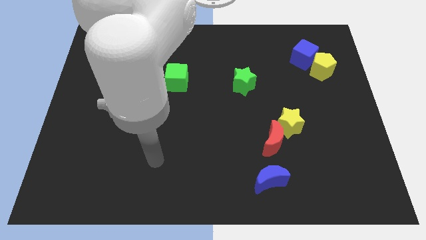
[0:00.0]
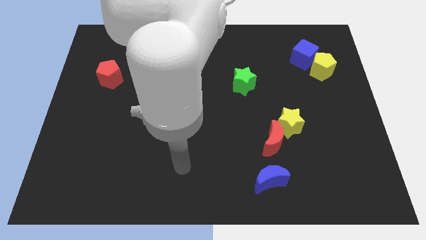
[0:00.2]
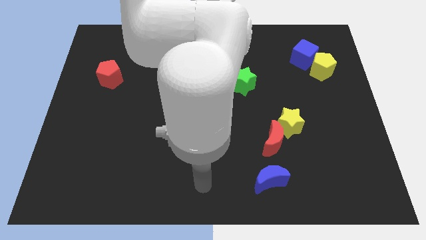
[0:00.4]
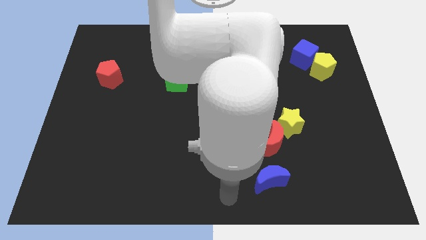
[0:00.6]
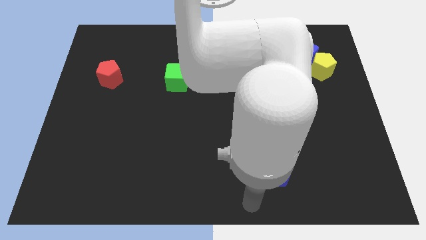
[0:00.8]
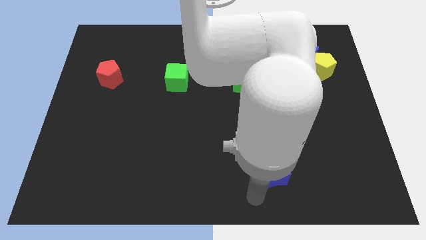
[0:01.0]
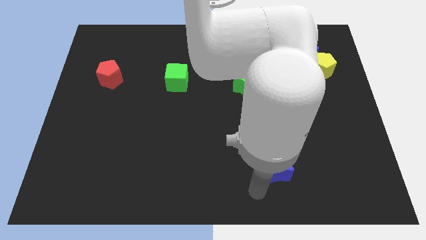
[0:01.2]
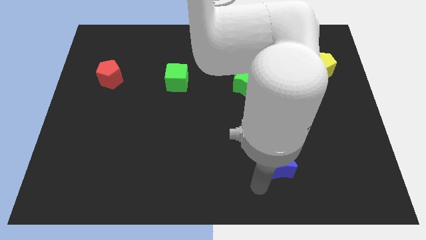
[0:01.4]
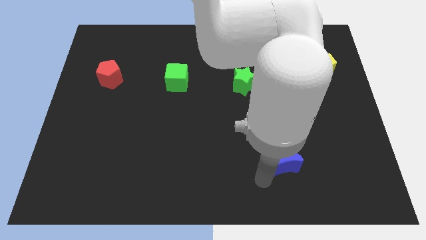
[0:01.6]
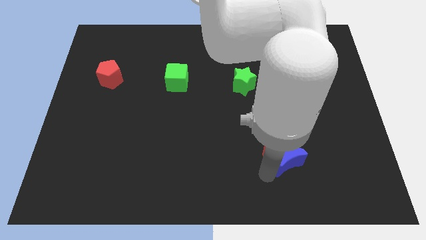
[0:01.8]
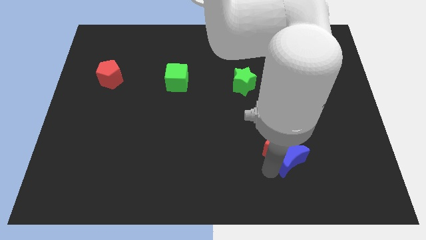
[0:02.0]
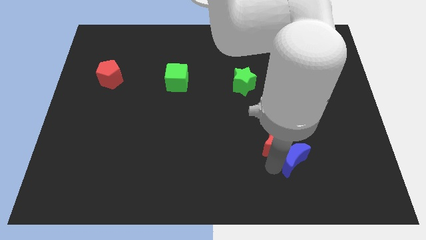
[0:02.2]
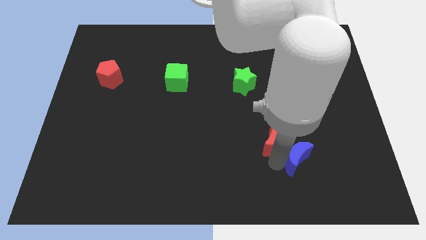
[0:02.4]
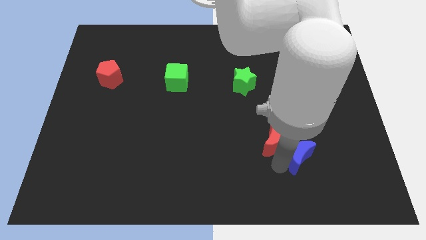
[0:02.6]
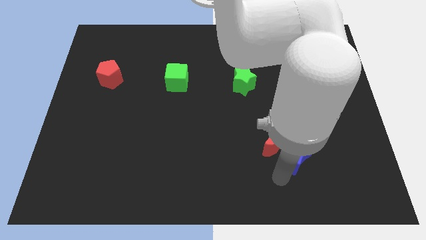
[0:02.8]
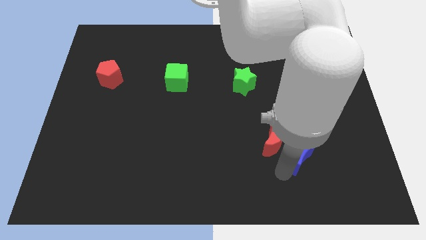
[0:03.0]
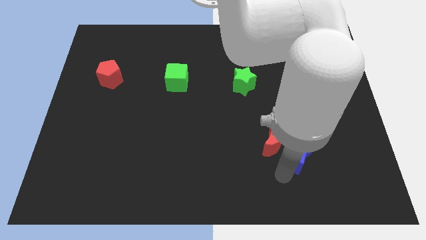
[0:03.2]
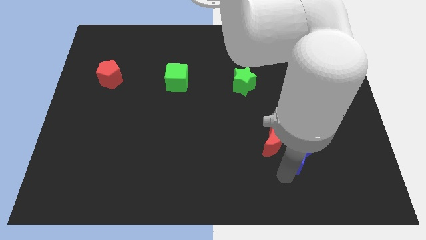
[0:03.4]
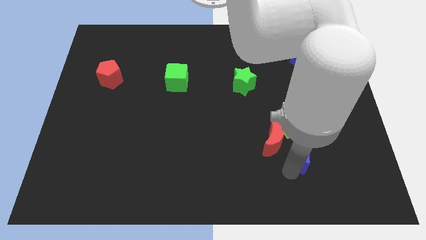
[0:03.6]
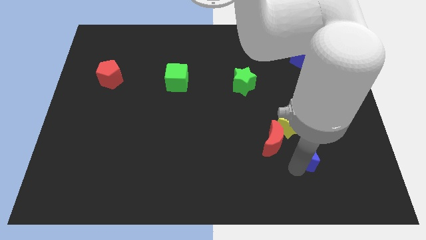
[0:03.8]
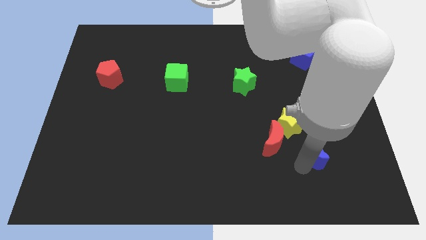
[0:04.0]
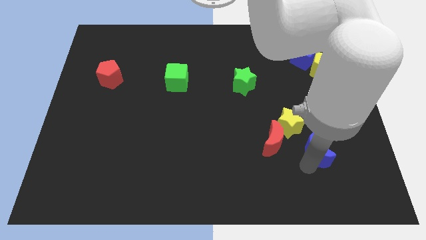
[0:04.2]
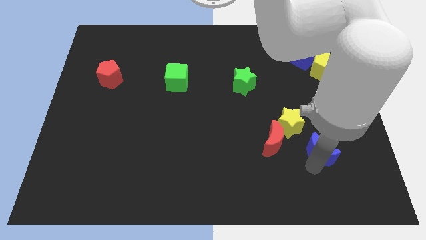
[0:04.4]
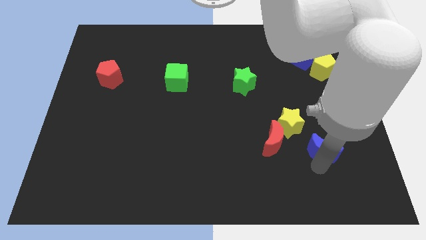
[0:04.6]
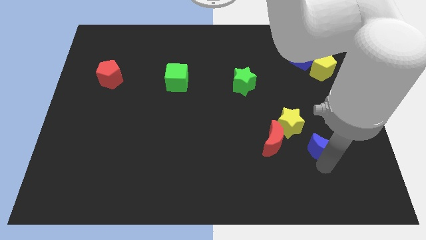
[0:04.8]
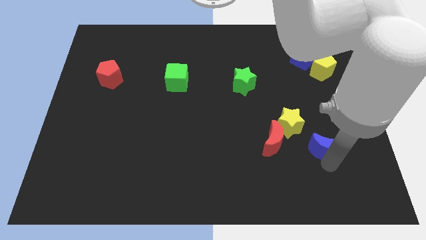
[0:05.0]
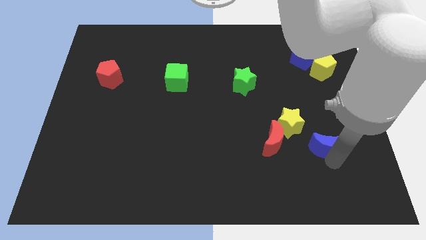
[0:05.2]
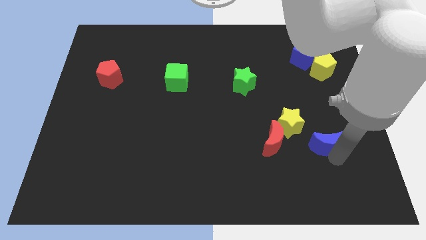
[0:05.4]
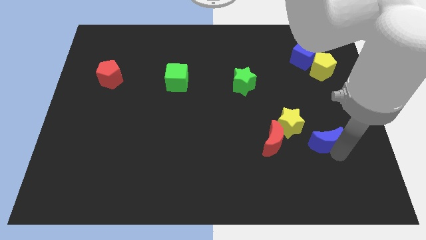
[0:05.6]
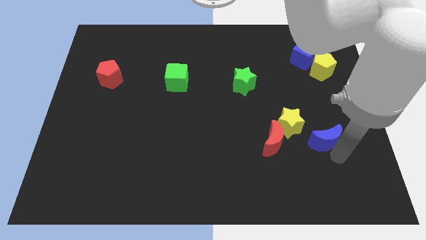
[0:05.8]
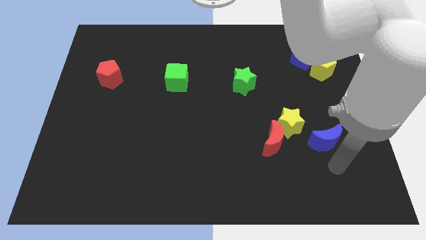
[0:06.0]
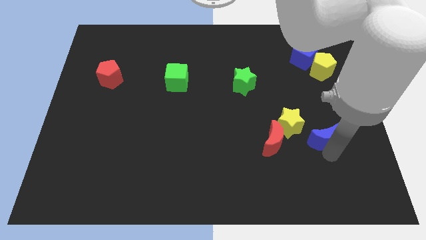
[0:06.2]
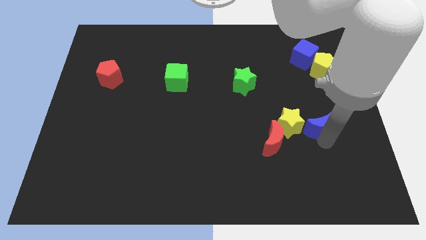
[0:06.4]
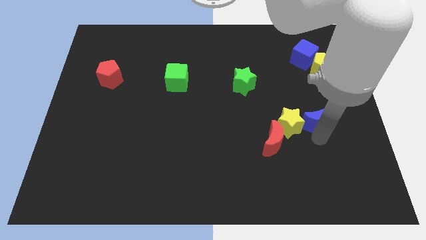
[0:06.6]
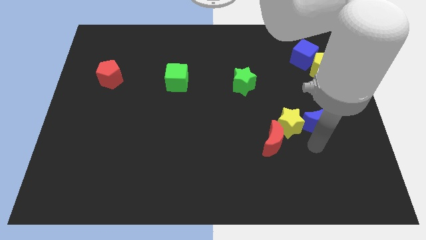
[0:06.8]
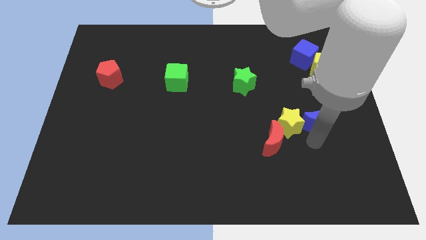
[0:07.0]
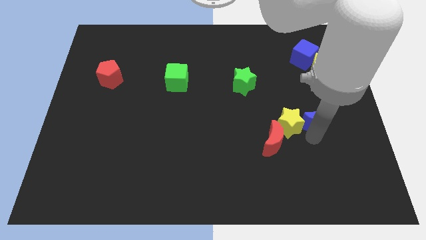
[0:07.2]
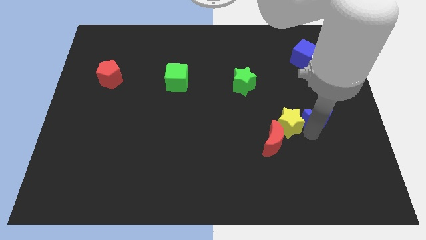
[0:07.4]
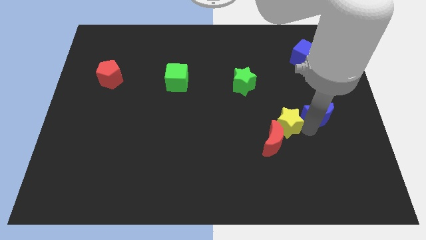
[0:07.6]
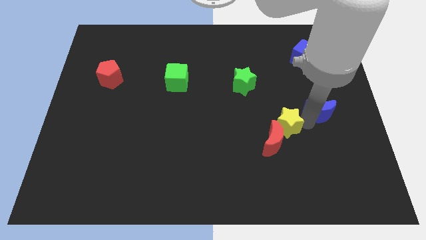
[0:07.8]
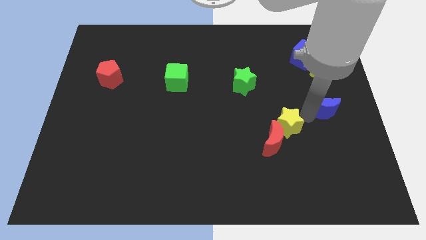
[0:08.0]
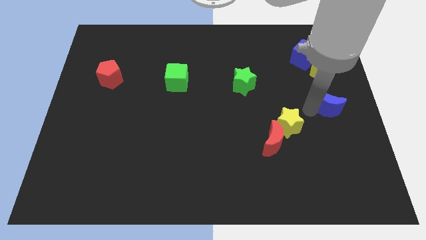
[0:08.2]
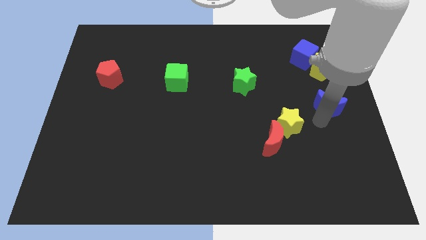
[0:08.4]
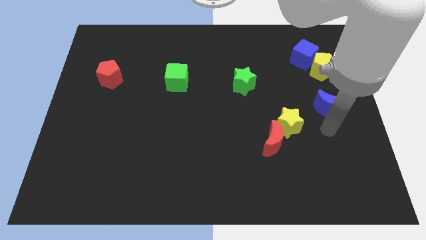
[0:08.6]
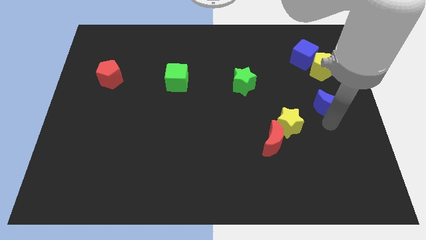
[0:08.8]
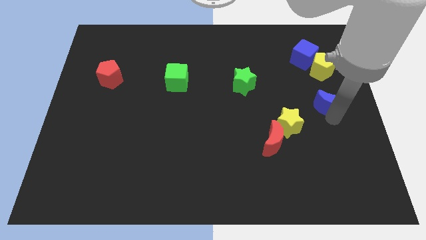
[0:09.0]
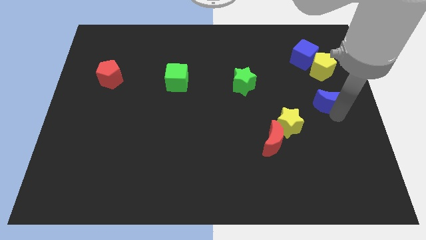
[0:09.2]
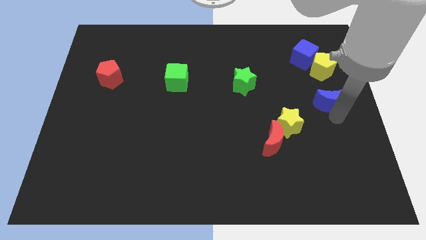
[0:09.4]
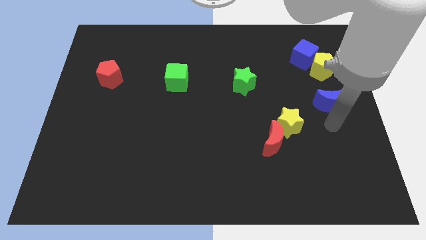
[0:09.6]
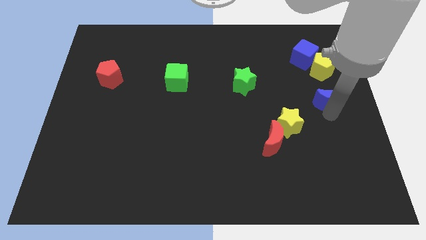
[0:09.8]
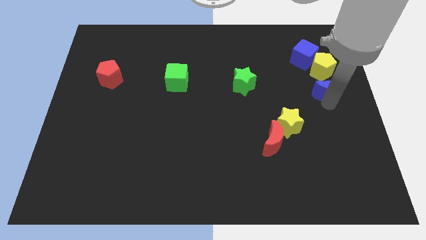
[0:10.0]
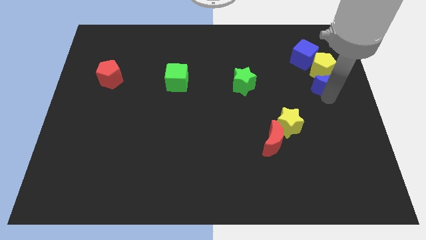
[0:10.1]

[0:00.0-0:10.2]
move the blue moon towards the yellow pentagon

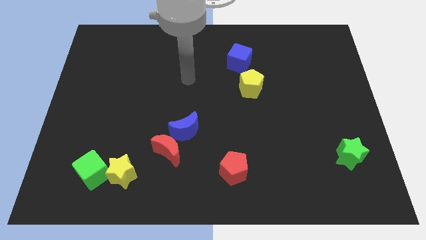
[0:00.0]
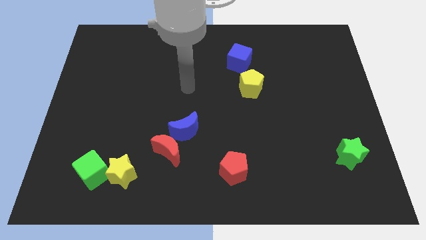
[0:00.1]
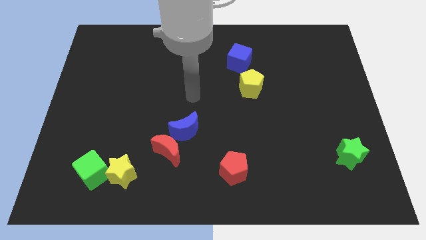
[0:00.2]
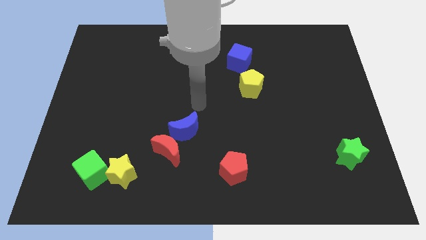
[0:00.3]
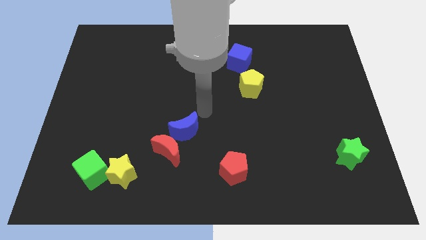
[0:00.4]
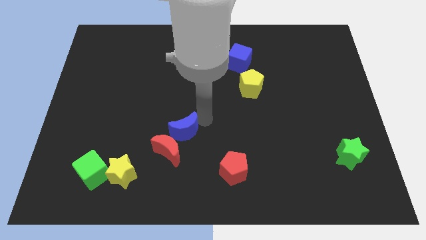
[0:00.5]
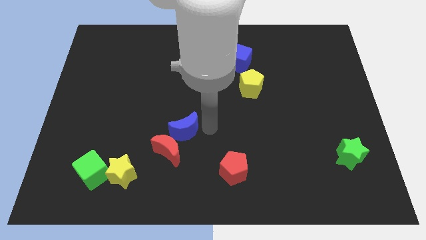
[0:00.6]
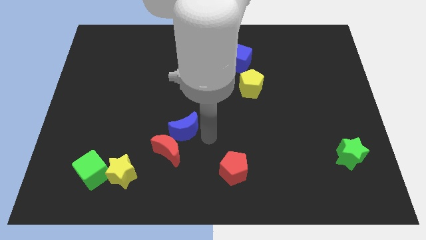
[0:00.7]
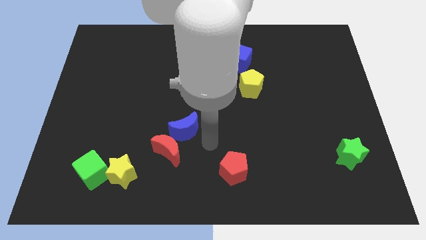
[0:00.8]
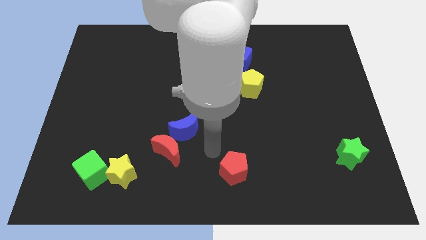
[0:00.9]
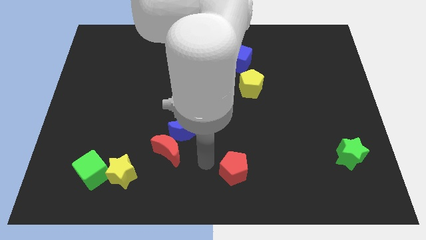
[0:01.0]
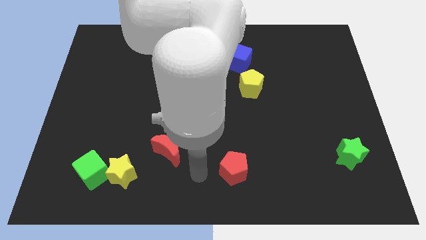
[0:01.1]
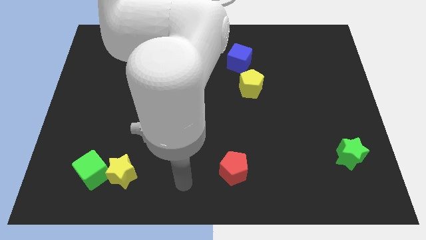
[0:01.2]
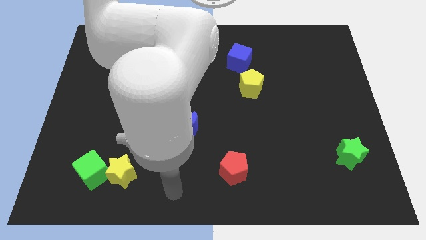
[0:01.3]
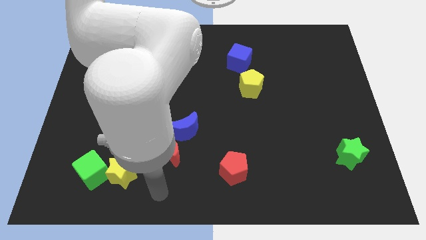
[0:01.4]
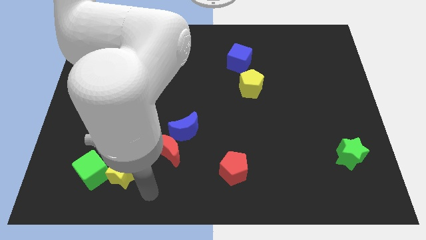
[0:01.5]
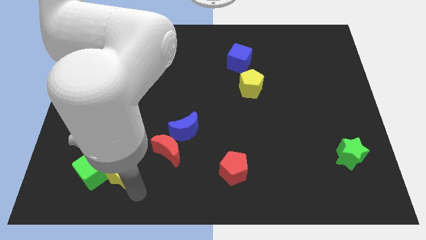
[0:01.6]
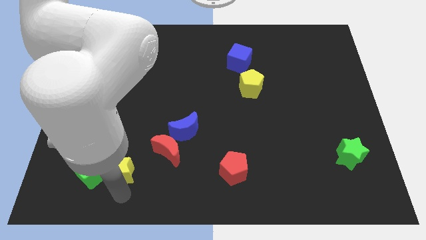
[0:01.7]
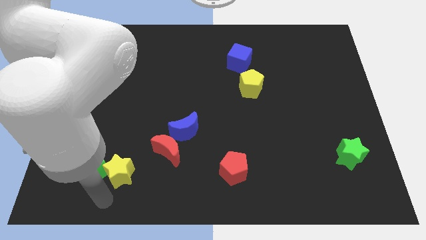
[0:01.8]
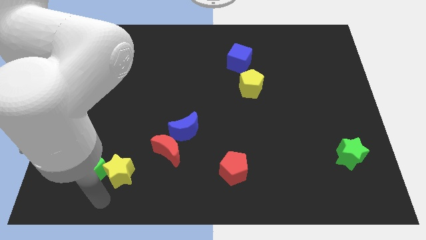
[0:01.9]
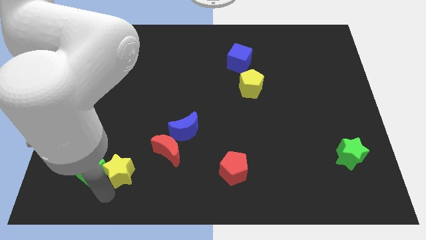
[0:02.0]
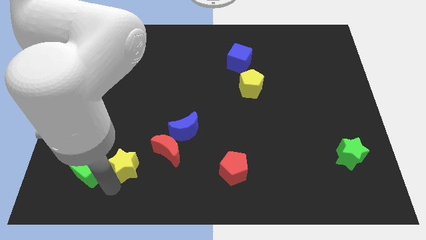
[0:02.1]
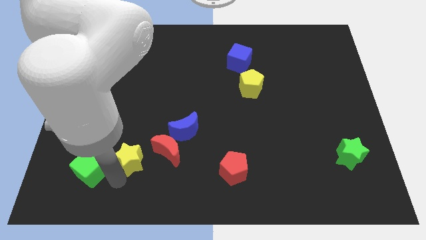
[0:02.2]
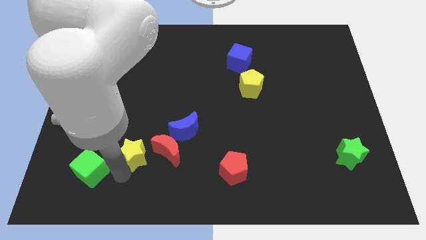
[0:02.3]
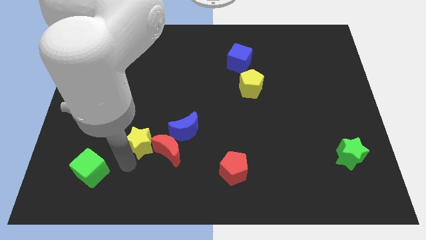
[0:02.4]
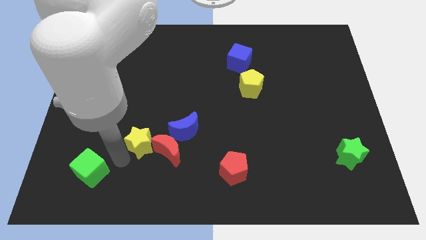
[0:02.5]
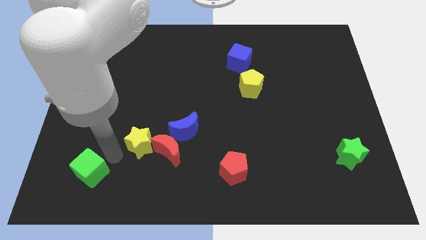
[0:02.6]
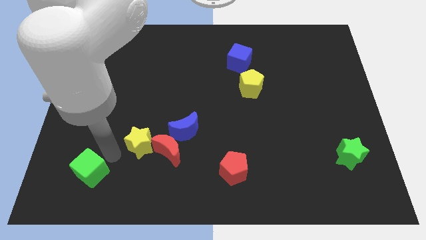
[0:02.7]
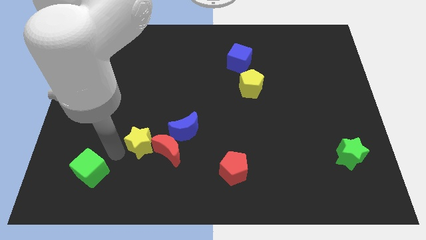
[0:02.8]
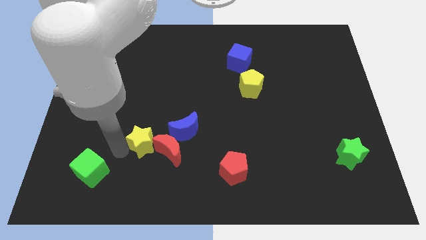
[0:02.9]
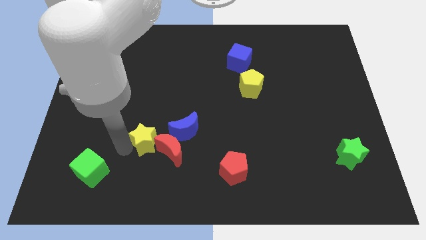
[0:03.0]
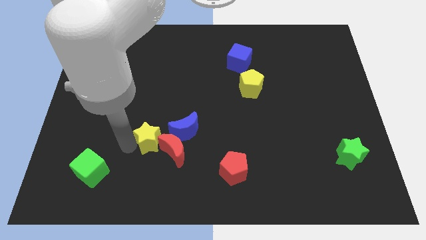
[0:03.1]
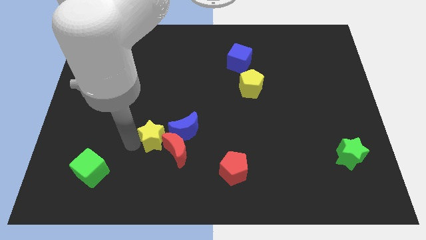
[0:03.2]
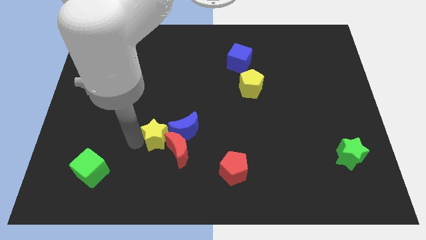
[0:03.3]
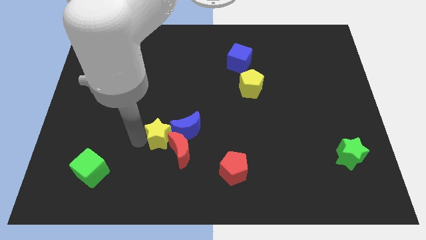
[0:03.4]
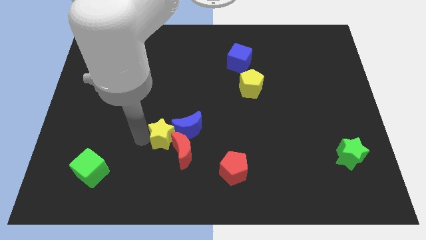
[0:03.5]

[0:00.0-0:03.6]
move the yellow star next to the blue moon
